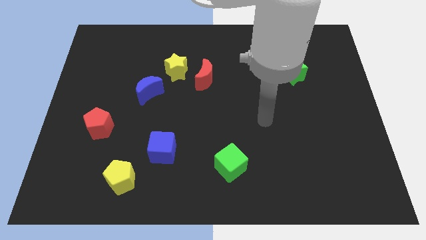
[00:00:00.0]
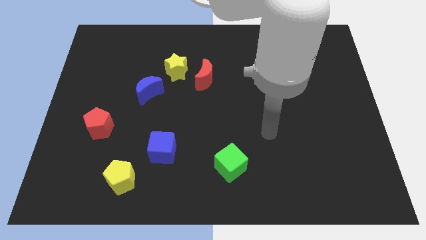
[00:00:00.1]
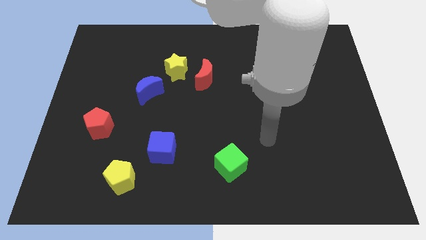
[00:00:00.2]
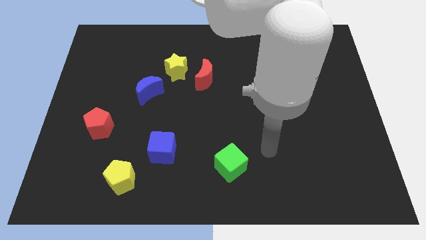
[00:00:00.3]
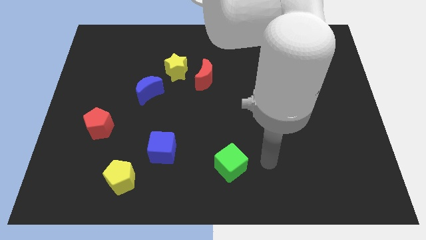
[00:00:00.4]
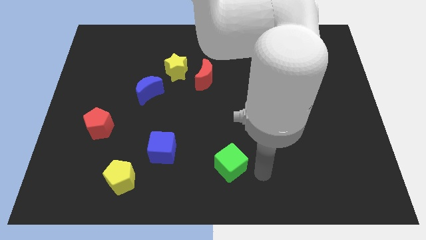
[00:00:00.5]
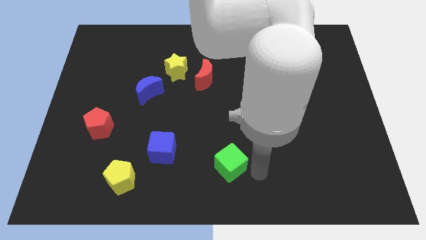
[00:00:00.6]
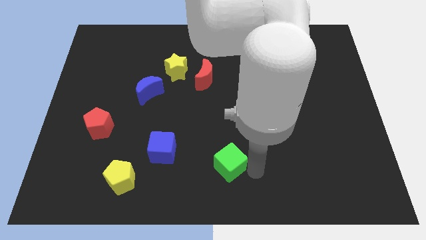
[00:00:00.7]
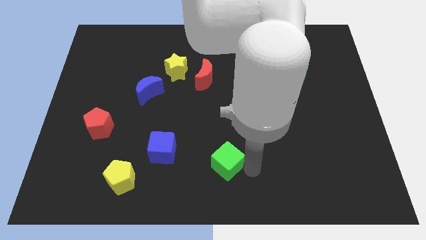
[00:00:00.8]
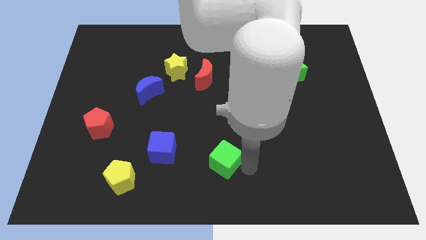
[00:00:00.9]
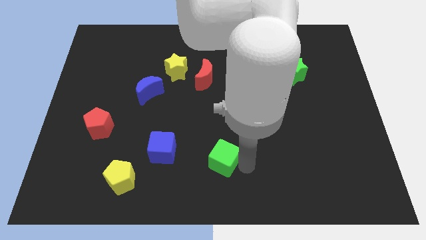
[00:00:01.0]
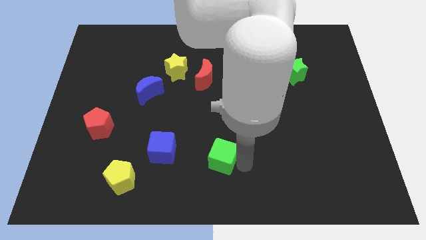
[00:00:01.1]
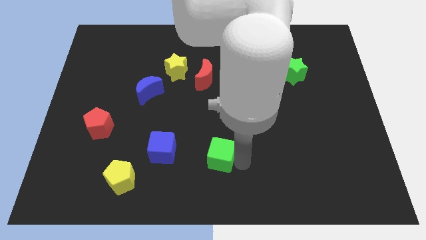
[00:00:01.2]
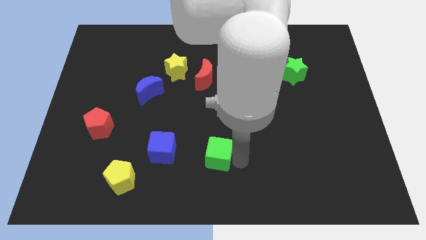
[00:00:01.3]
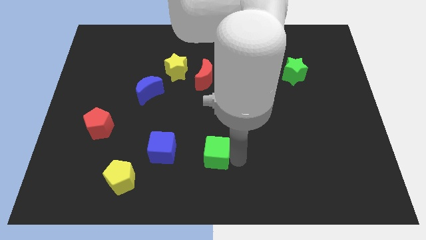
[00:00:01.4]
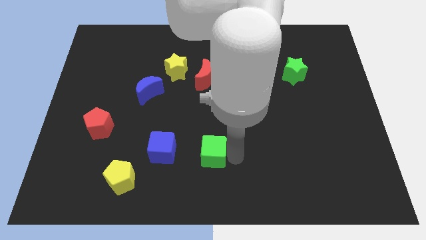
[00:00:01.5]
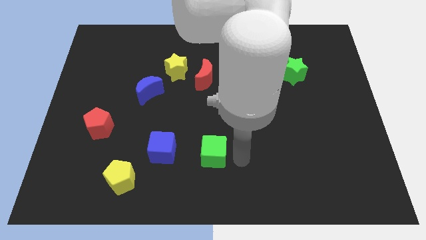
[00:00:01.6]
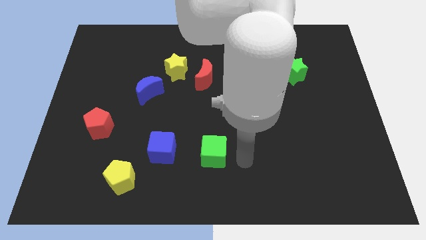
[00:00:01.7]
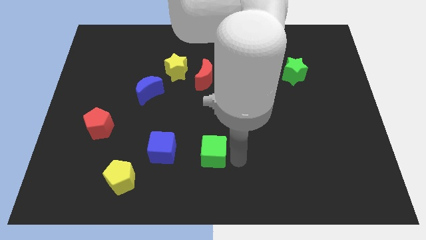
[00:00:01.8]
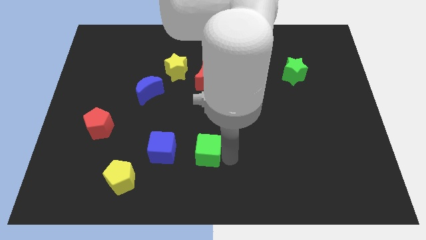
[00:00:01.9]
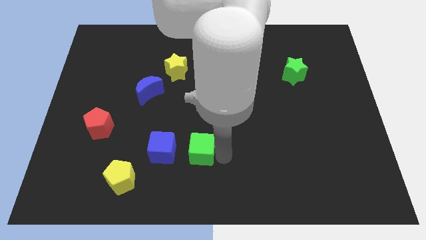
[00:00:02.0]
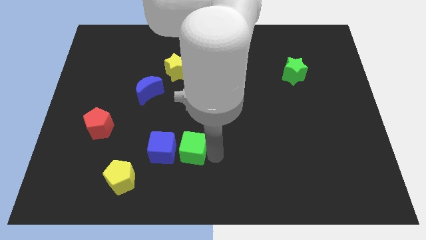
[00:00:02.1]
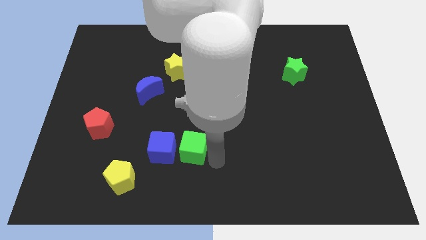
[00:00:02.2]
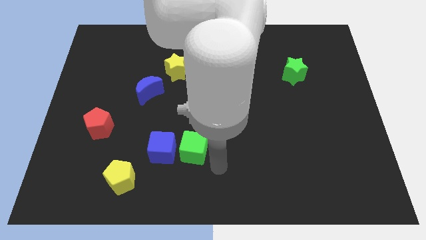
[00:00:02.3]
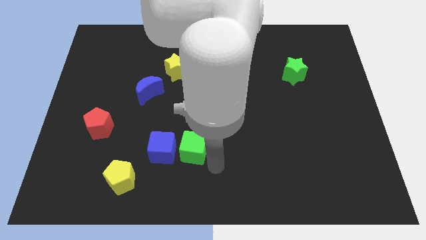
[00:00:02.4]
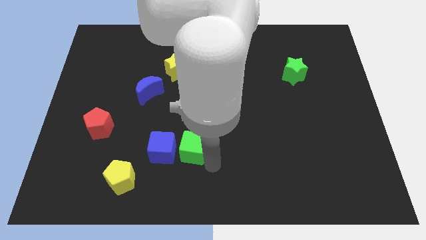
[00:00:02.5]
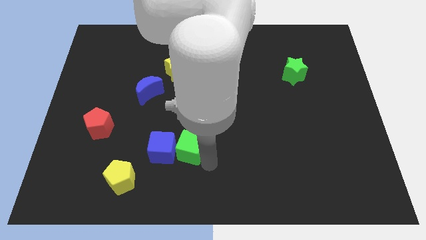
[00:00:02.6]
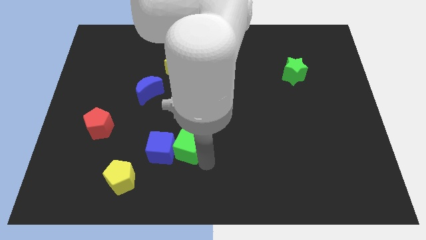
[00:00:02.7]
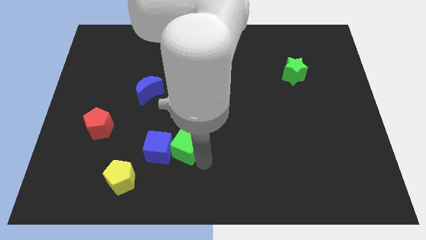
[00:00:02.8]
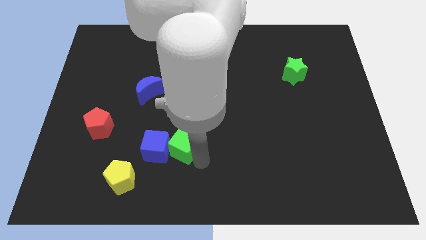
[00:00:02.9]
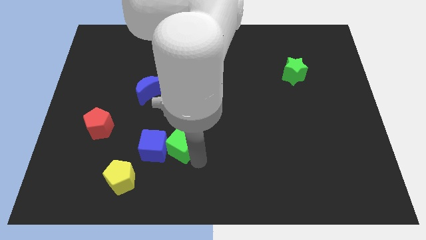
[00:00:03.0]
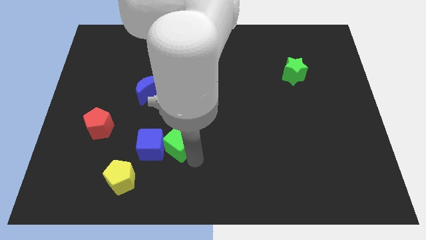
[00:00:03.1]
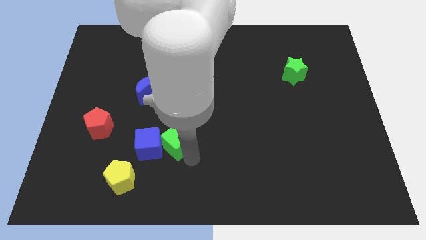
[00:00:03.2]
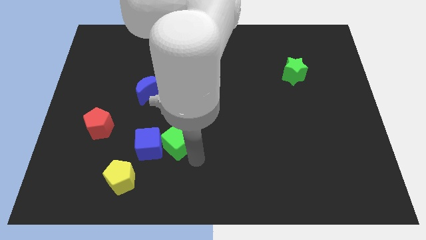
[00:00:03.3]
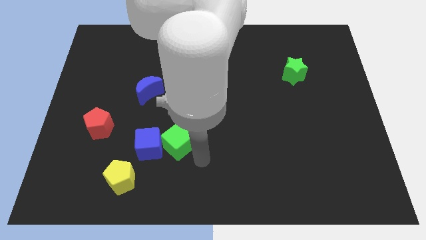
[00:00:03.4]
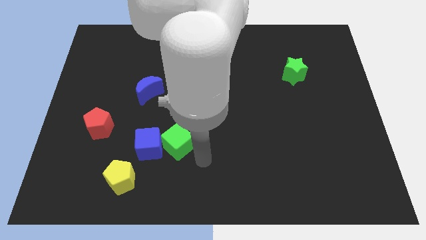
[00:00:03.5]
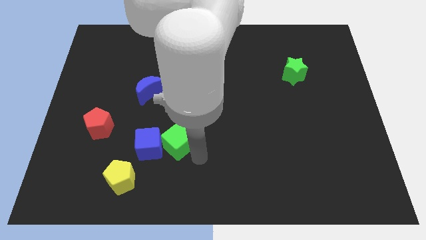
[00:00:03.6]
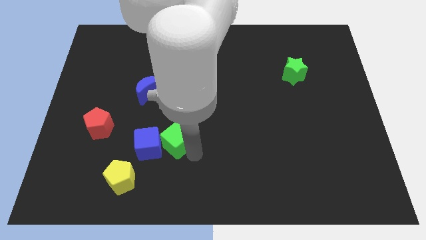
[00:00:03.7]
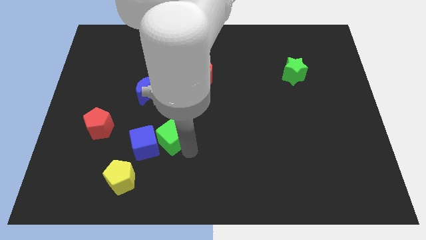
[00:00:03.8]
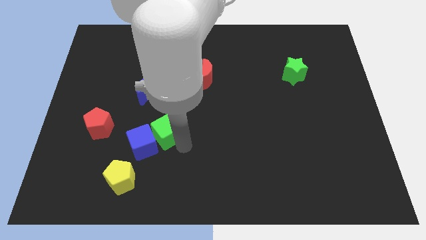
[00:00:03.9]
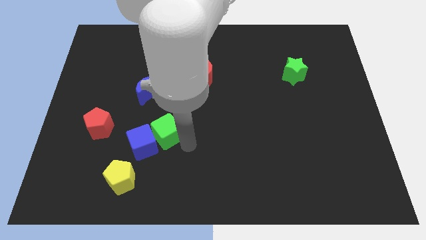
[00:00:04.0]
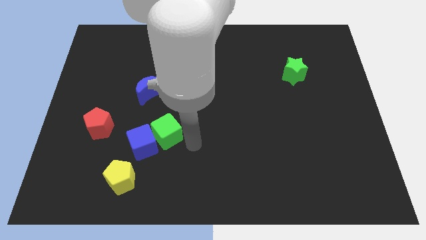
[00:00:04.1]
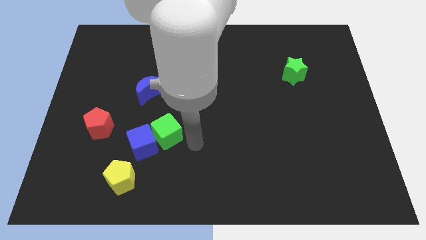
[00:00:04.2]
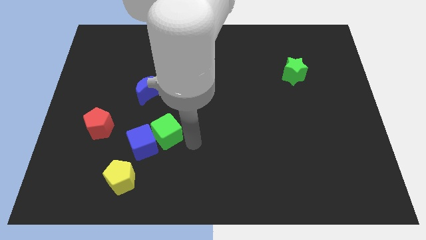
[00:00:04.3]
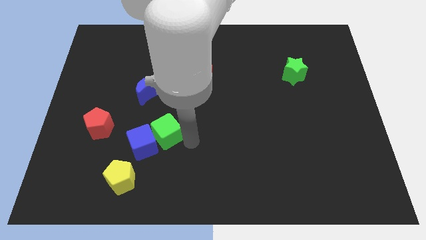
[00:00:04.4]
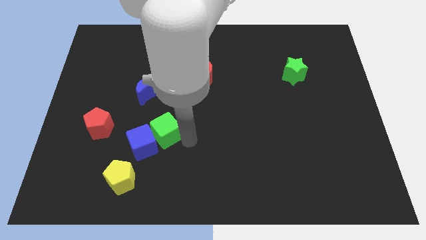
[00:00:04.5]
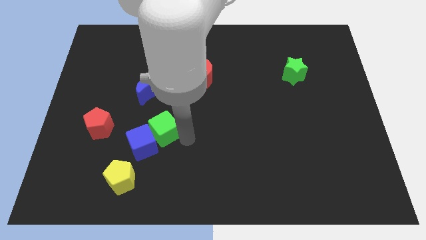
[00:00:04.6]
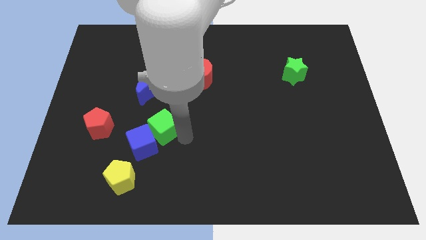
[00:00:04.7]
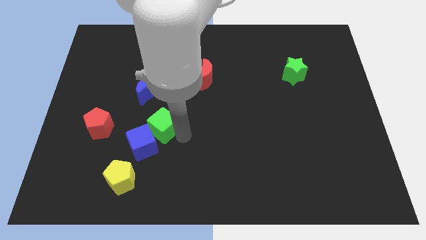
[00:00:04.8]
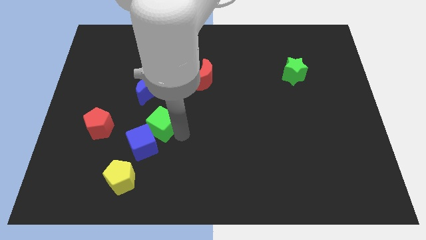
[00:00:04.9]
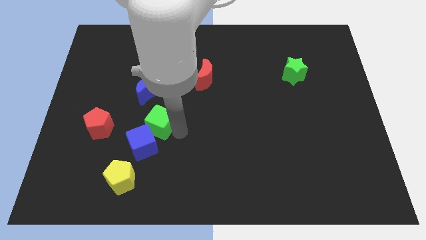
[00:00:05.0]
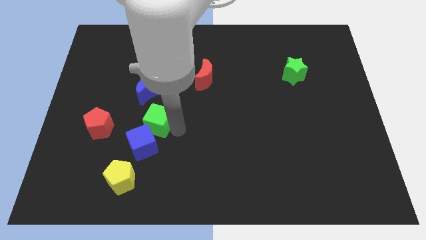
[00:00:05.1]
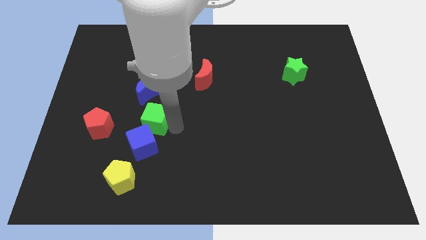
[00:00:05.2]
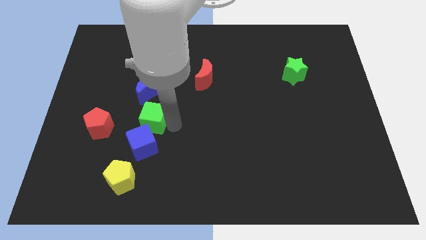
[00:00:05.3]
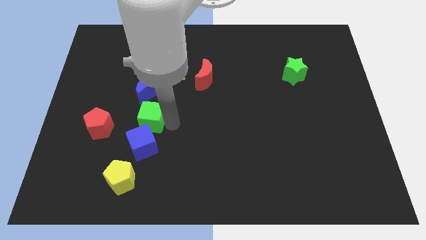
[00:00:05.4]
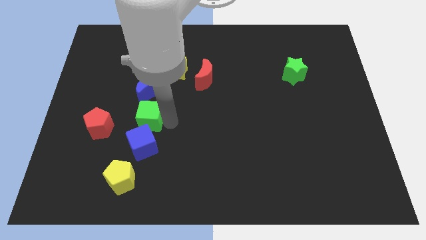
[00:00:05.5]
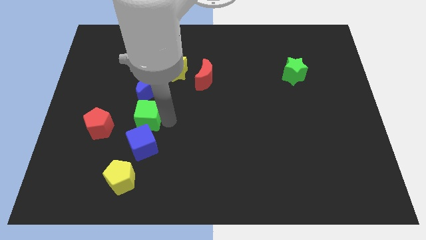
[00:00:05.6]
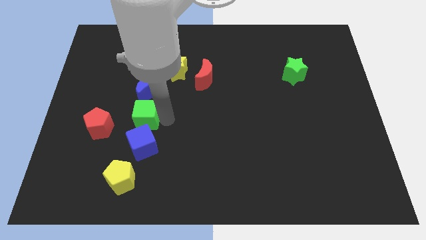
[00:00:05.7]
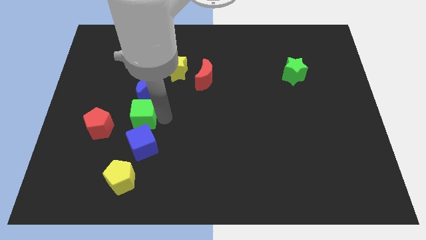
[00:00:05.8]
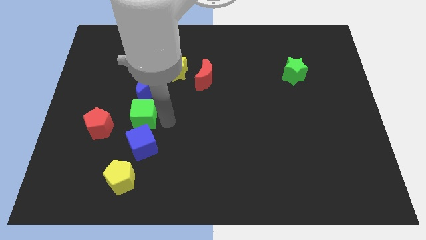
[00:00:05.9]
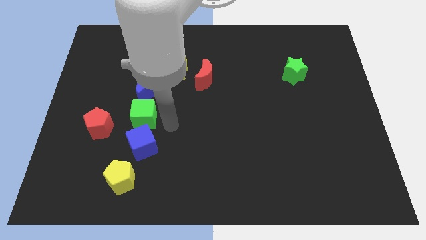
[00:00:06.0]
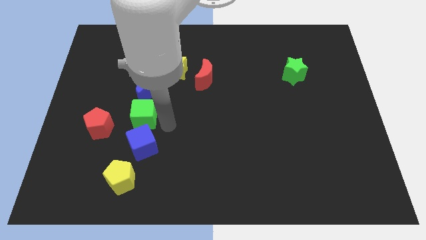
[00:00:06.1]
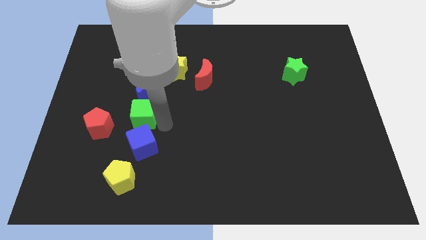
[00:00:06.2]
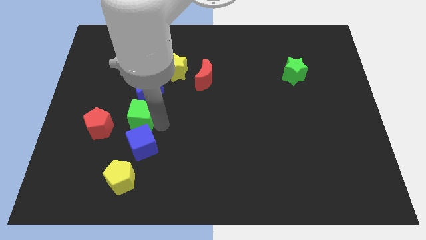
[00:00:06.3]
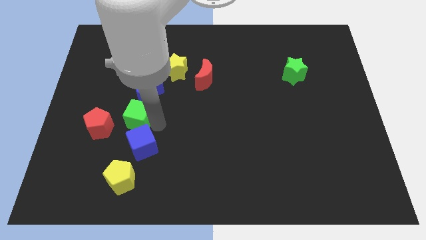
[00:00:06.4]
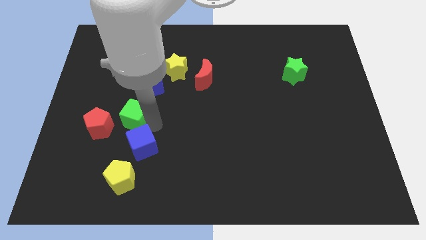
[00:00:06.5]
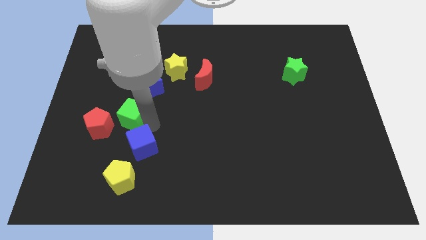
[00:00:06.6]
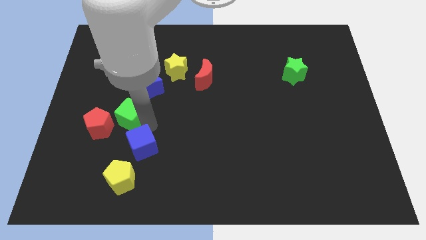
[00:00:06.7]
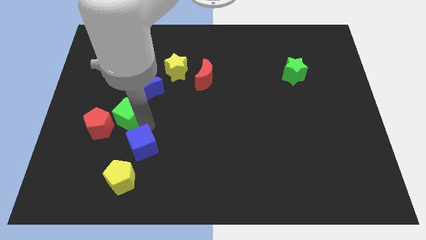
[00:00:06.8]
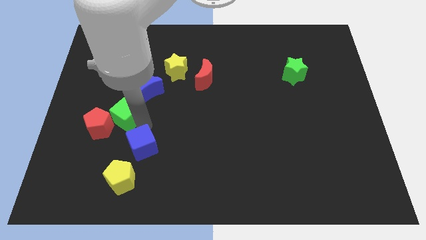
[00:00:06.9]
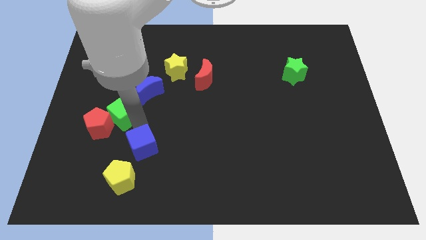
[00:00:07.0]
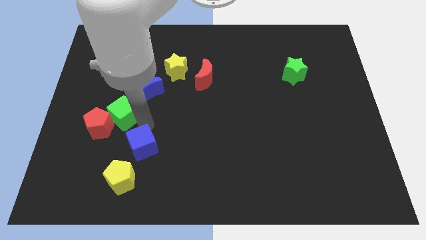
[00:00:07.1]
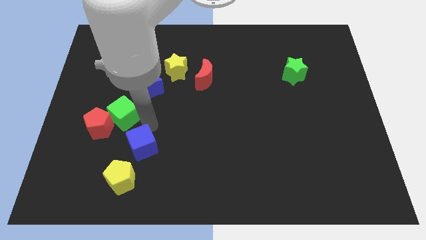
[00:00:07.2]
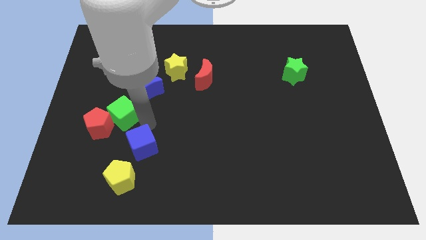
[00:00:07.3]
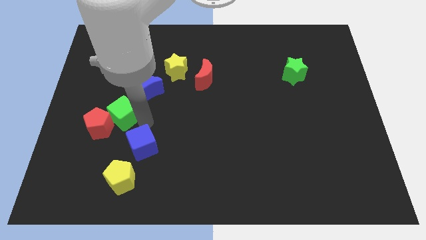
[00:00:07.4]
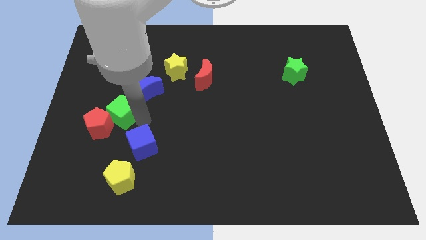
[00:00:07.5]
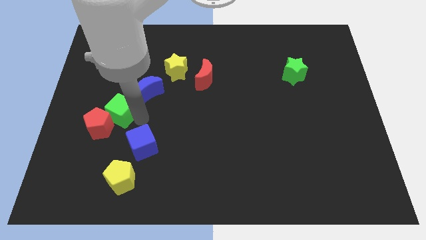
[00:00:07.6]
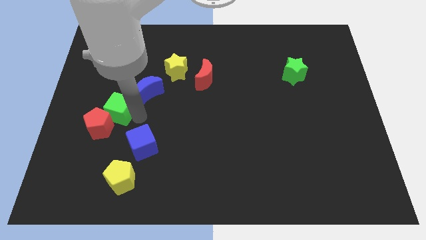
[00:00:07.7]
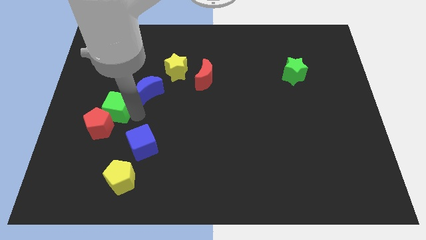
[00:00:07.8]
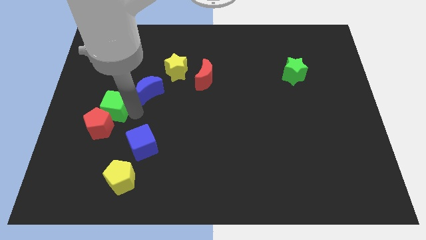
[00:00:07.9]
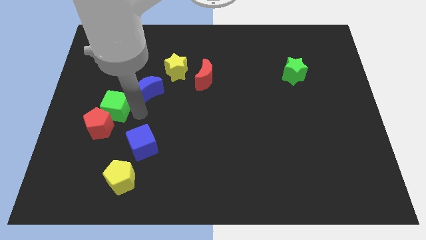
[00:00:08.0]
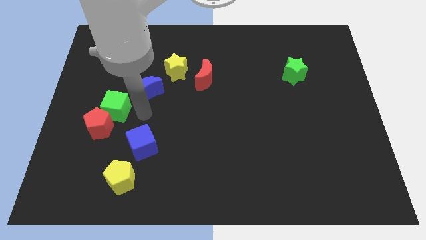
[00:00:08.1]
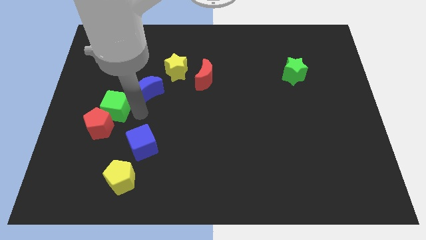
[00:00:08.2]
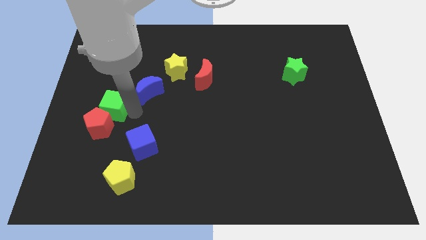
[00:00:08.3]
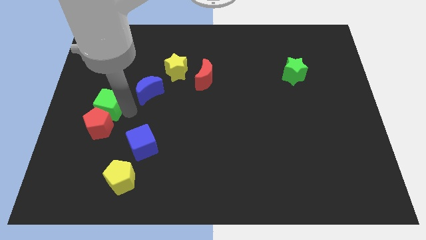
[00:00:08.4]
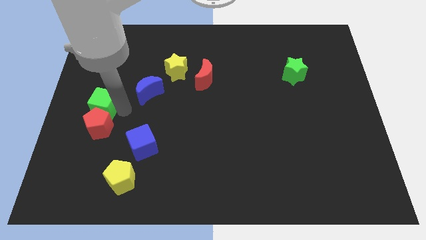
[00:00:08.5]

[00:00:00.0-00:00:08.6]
put the green cube to the center left
